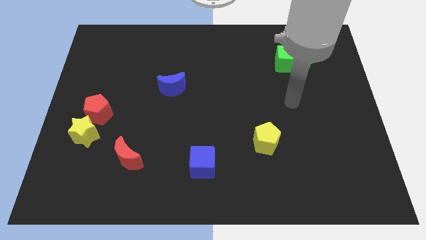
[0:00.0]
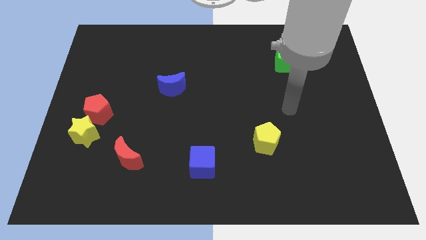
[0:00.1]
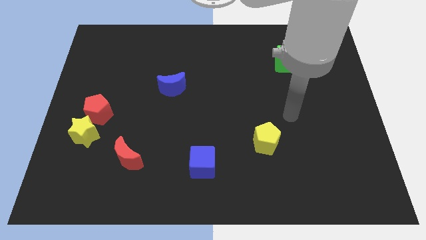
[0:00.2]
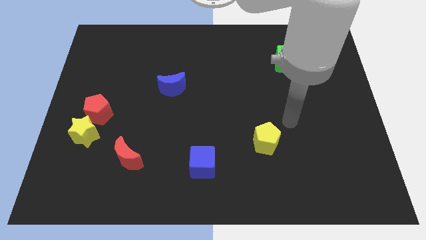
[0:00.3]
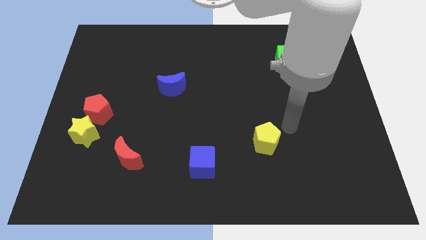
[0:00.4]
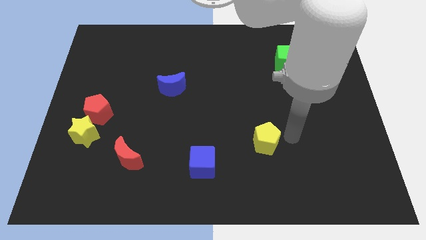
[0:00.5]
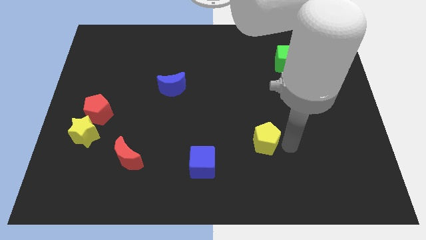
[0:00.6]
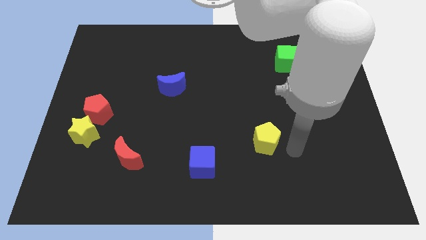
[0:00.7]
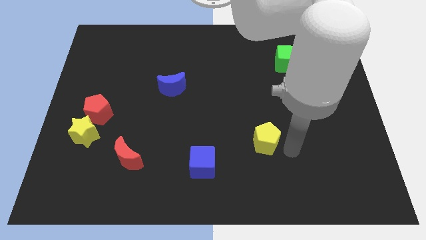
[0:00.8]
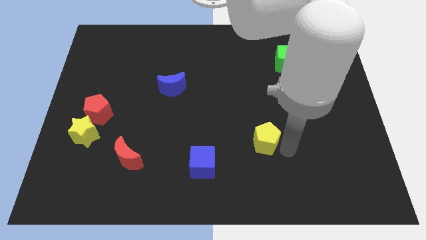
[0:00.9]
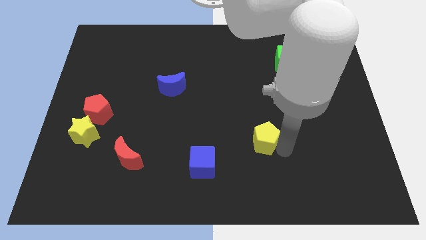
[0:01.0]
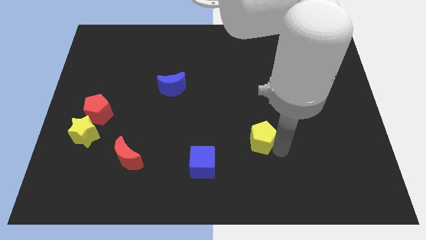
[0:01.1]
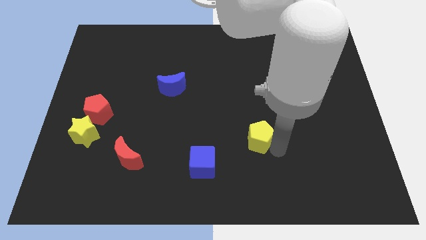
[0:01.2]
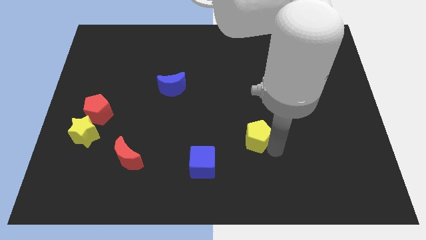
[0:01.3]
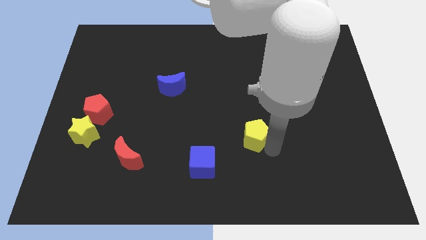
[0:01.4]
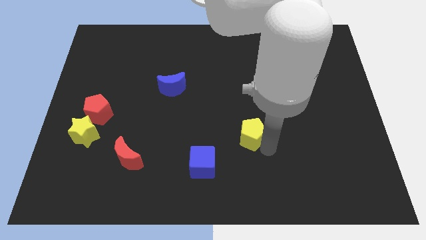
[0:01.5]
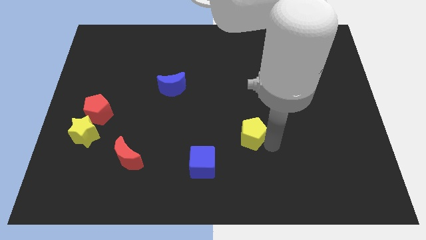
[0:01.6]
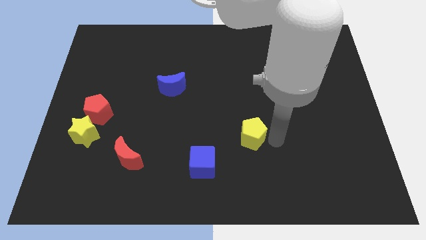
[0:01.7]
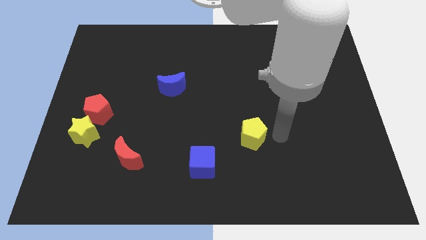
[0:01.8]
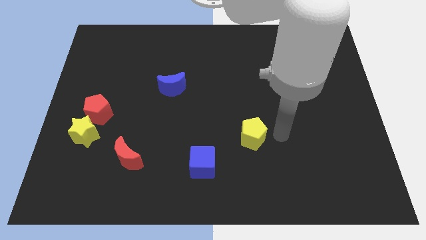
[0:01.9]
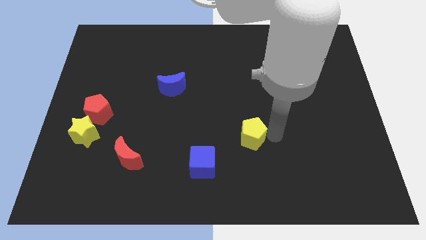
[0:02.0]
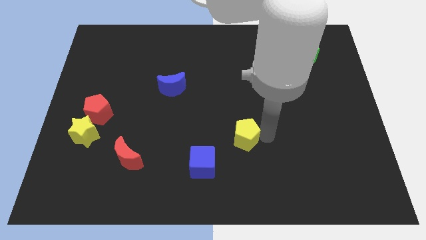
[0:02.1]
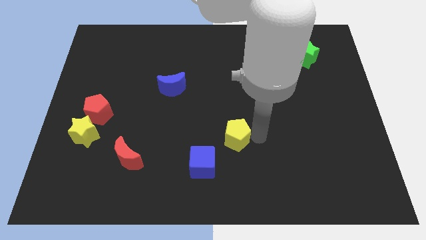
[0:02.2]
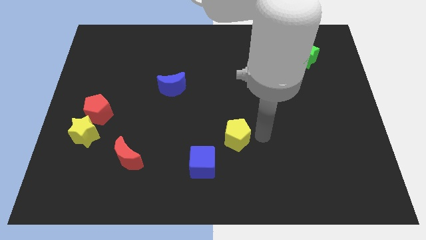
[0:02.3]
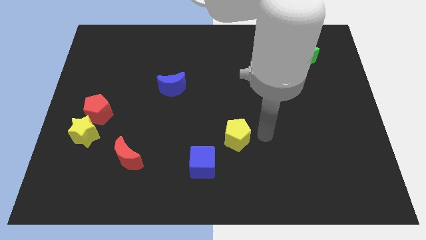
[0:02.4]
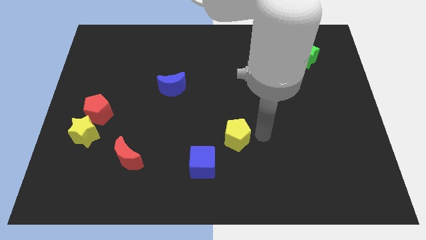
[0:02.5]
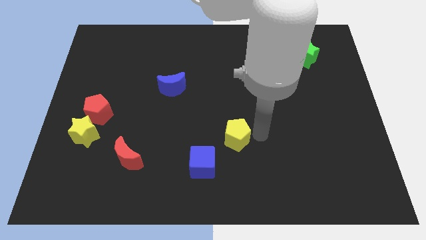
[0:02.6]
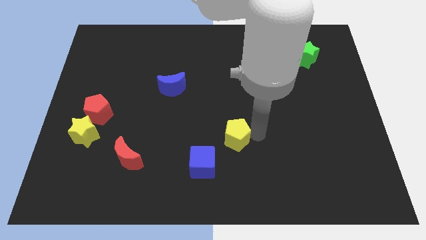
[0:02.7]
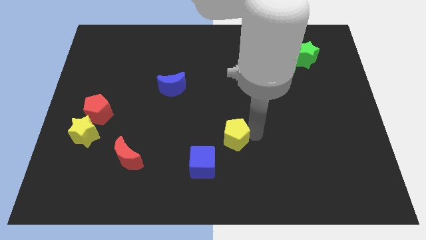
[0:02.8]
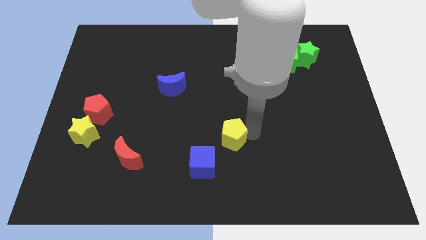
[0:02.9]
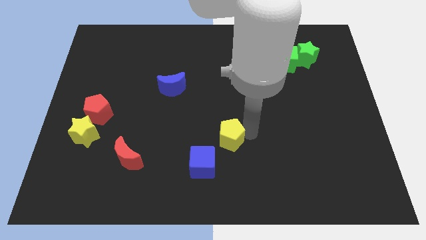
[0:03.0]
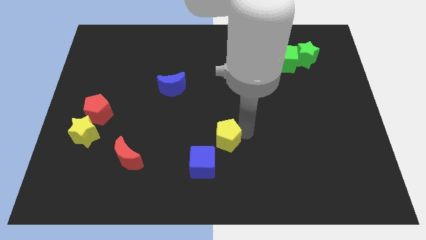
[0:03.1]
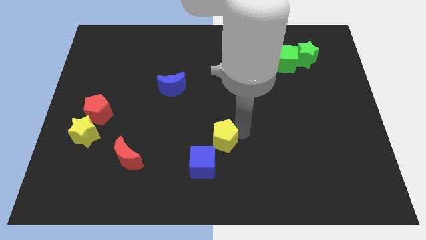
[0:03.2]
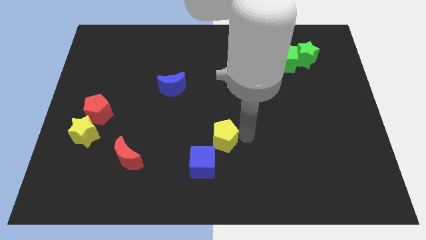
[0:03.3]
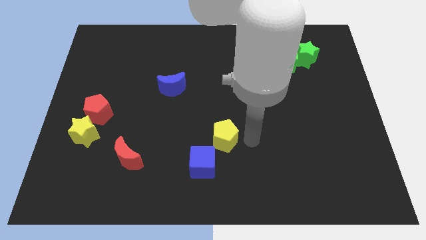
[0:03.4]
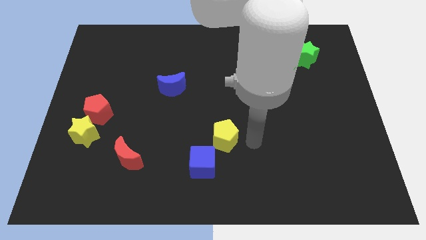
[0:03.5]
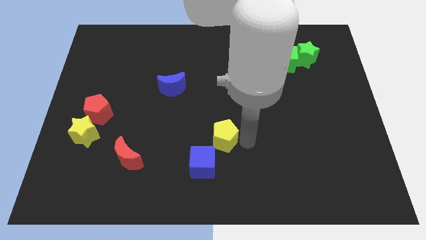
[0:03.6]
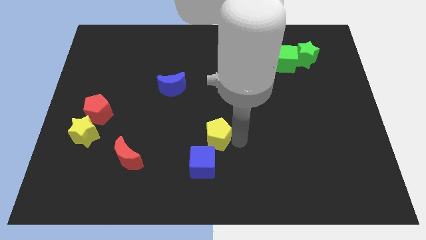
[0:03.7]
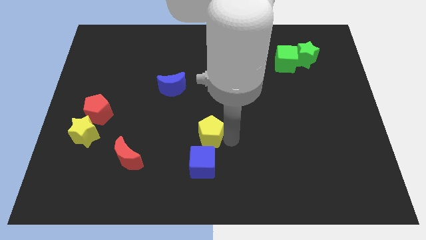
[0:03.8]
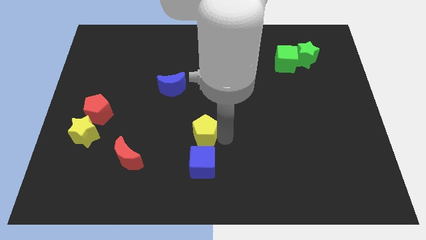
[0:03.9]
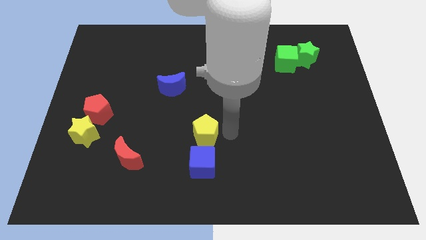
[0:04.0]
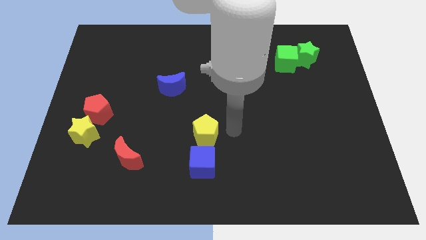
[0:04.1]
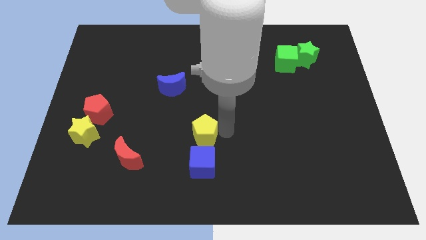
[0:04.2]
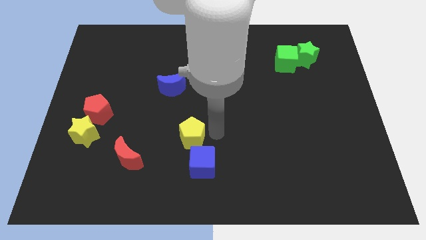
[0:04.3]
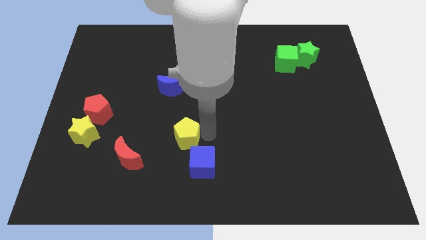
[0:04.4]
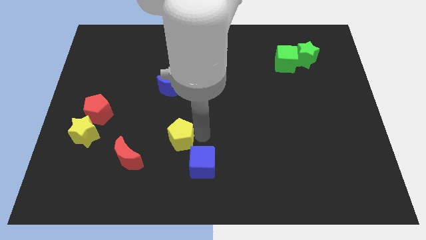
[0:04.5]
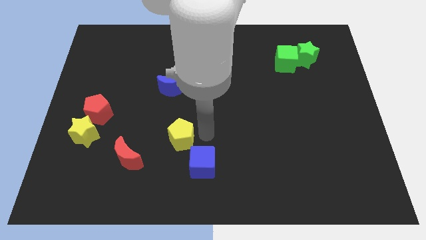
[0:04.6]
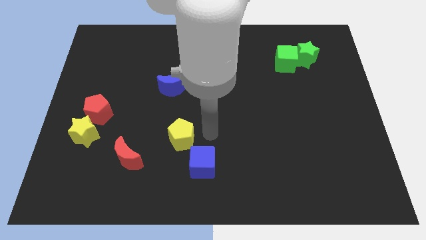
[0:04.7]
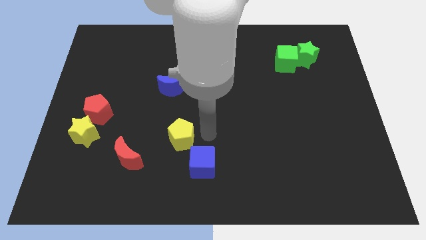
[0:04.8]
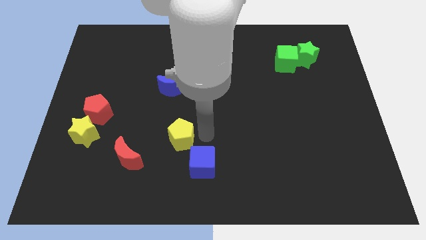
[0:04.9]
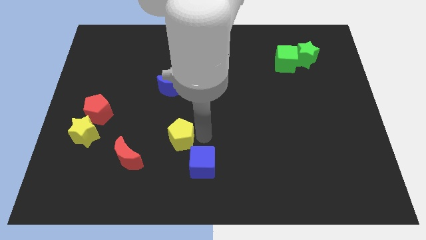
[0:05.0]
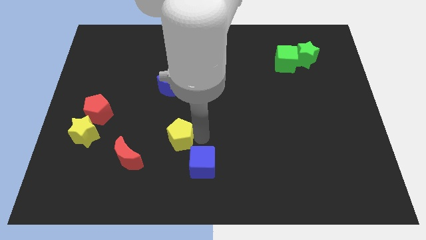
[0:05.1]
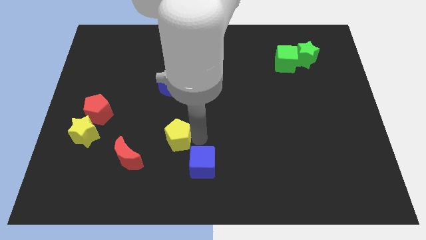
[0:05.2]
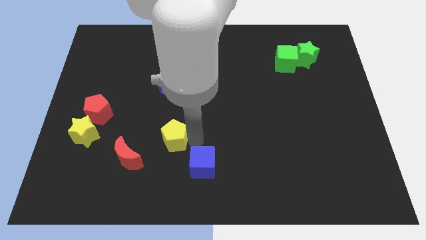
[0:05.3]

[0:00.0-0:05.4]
move the yellow pentagon to the left

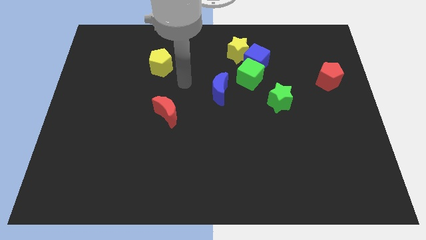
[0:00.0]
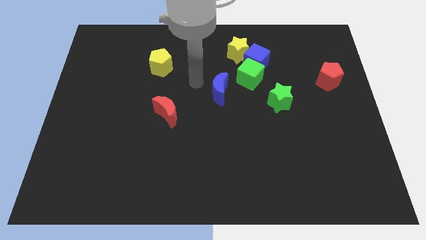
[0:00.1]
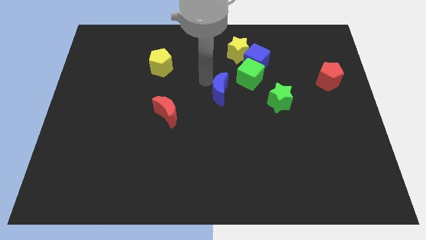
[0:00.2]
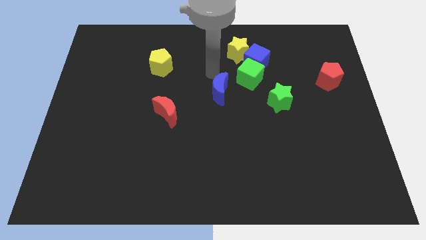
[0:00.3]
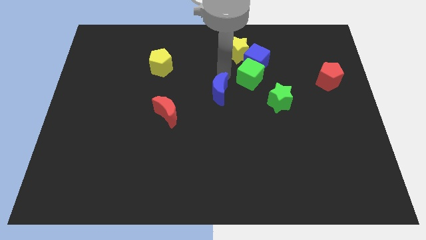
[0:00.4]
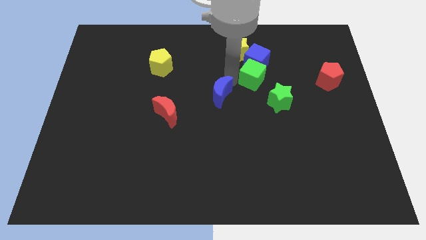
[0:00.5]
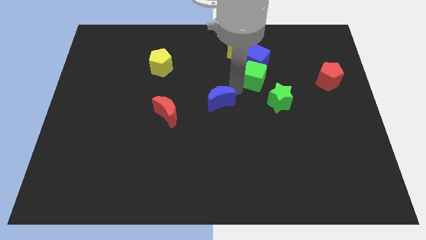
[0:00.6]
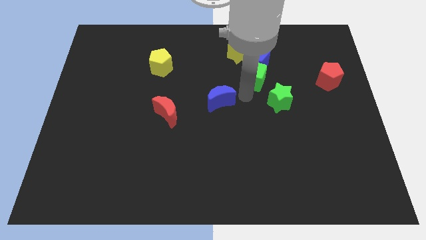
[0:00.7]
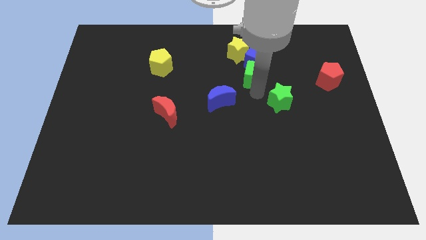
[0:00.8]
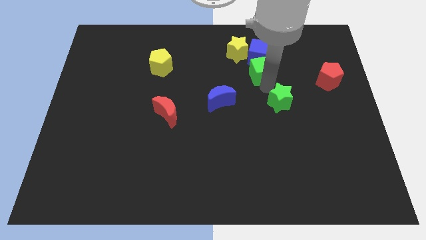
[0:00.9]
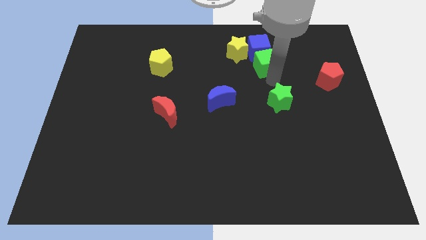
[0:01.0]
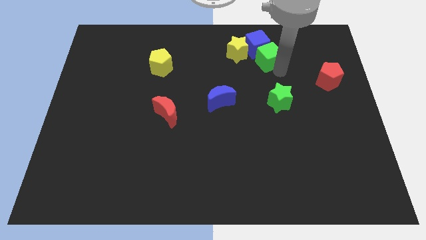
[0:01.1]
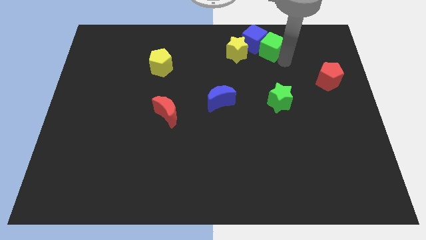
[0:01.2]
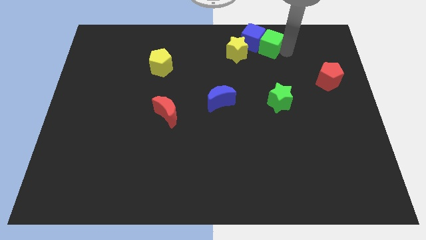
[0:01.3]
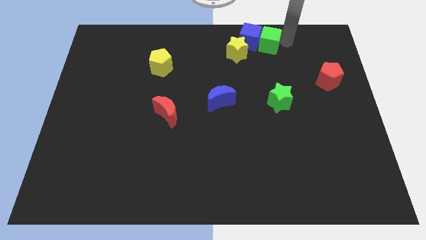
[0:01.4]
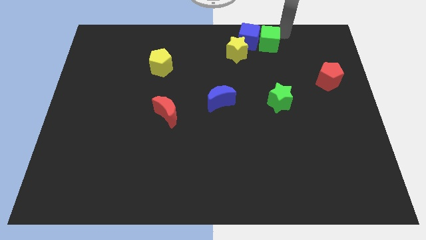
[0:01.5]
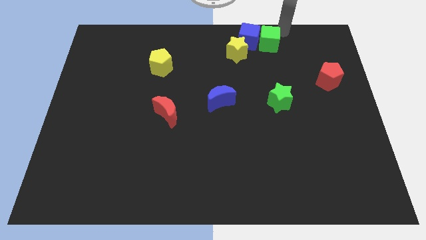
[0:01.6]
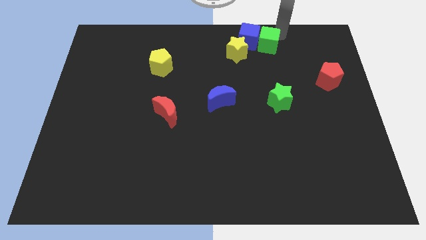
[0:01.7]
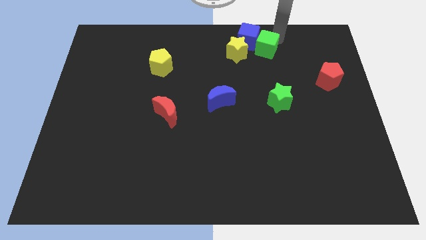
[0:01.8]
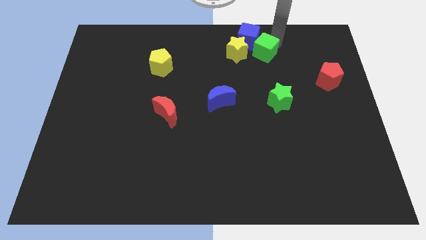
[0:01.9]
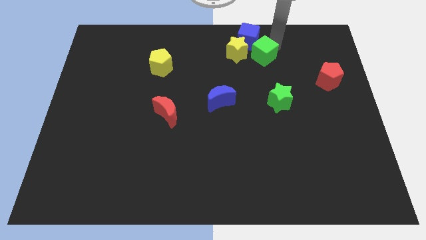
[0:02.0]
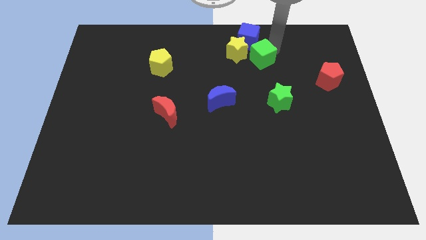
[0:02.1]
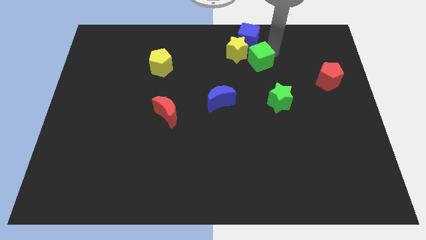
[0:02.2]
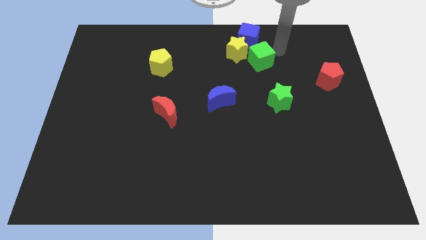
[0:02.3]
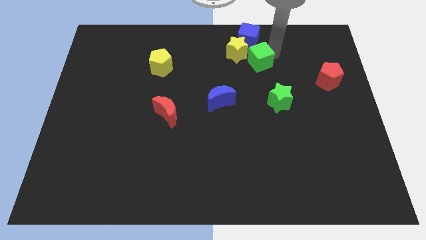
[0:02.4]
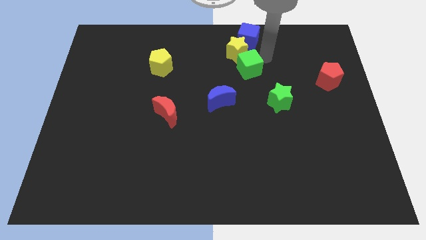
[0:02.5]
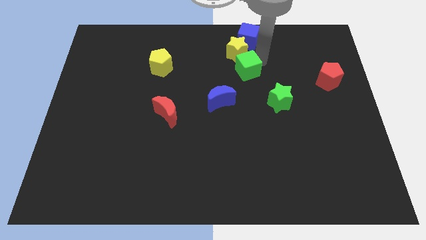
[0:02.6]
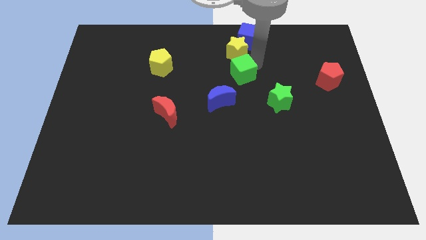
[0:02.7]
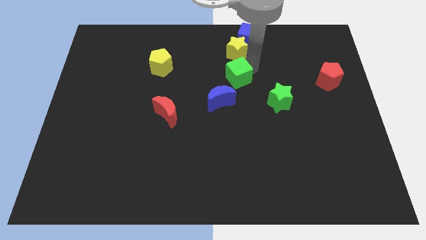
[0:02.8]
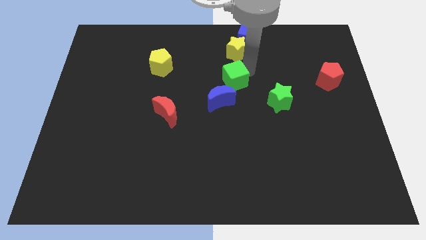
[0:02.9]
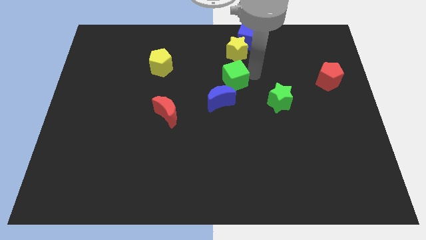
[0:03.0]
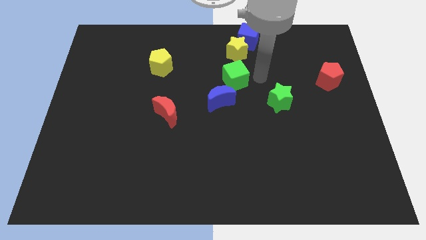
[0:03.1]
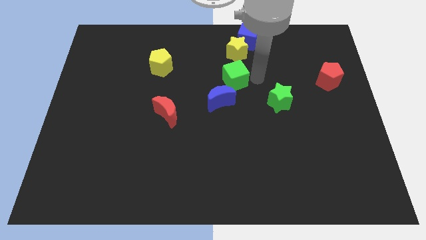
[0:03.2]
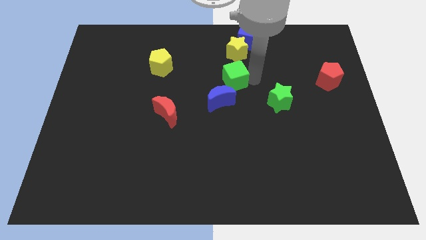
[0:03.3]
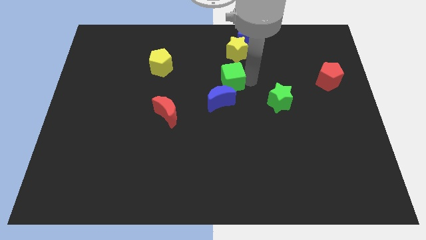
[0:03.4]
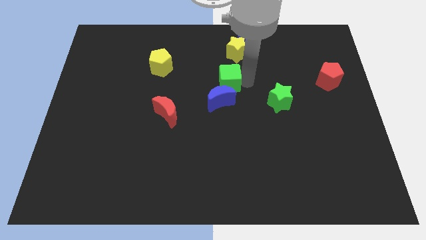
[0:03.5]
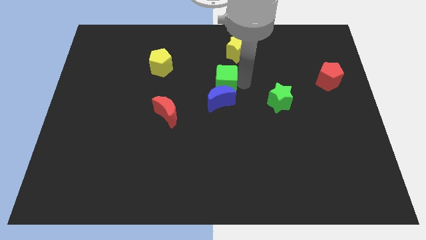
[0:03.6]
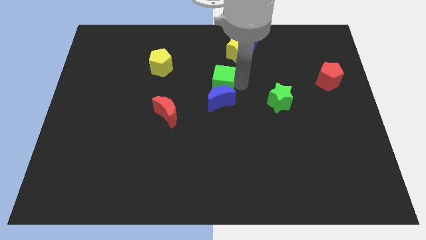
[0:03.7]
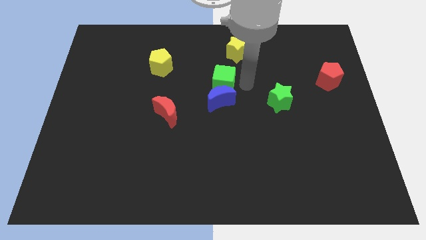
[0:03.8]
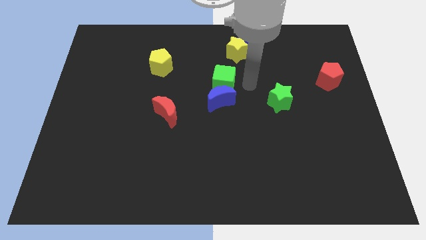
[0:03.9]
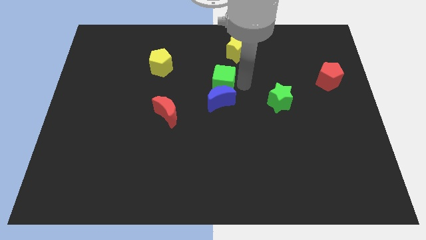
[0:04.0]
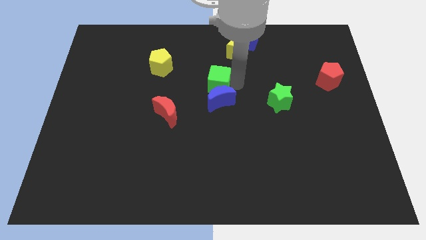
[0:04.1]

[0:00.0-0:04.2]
slightly move the green cube left
